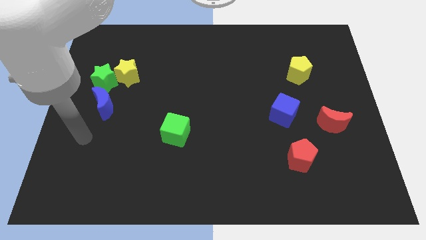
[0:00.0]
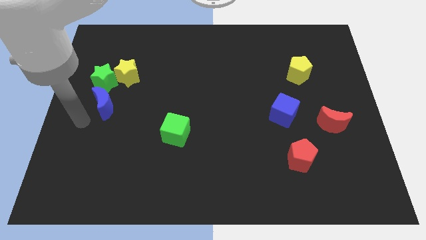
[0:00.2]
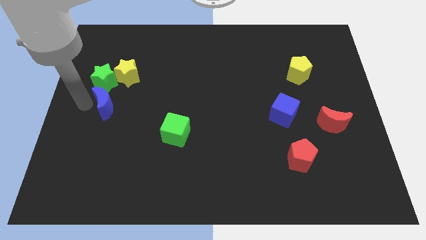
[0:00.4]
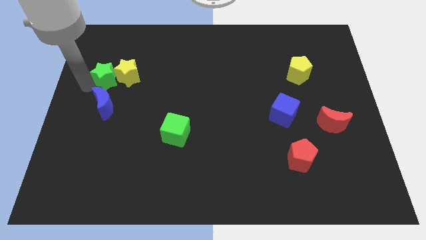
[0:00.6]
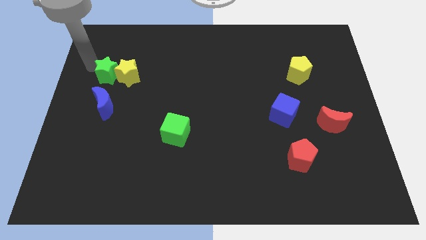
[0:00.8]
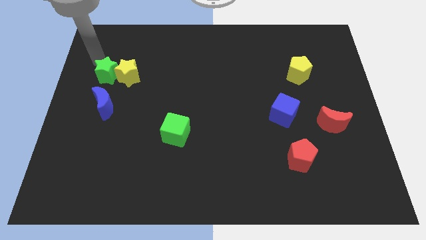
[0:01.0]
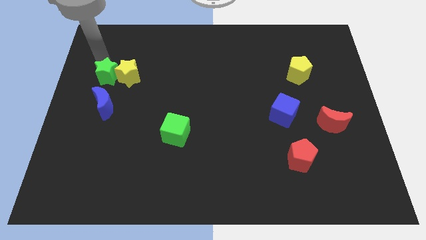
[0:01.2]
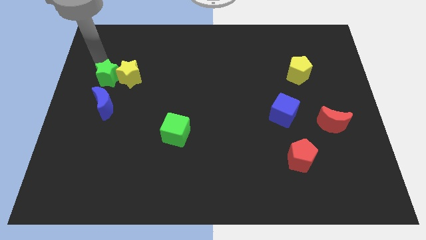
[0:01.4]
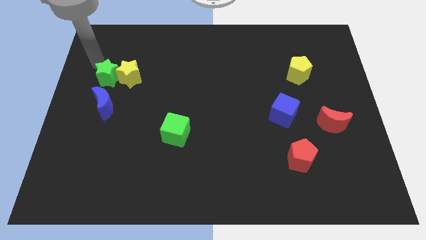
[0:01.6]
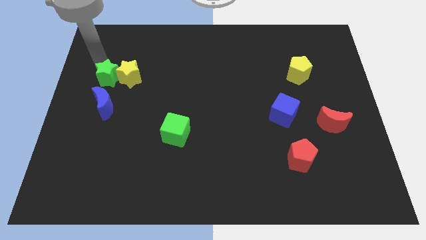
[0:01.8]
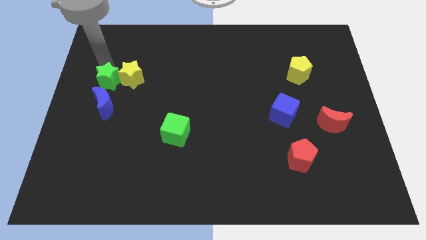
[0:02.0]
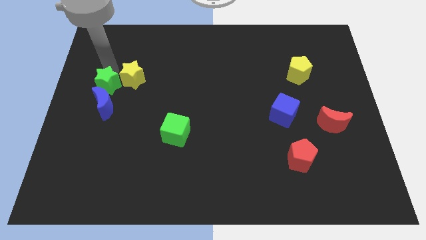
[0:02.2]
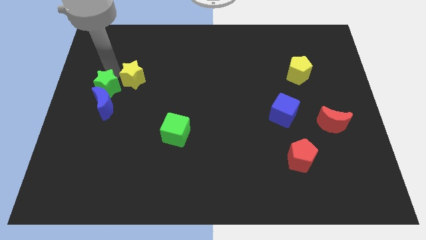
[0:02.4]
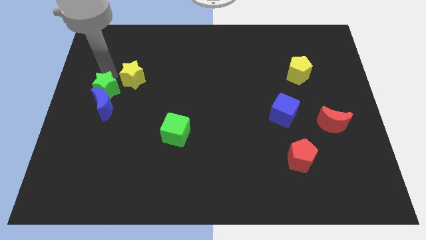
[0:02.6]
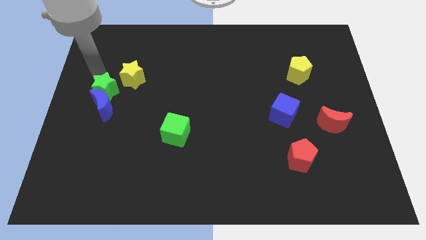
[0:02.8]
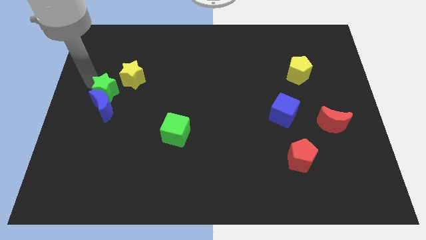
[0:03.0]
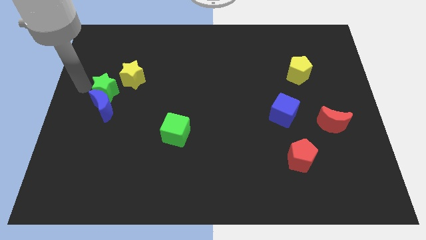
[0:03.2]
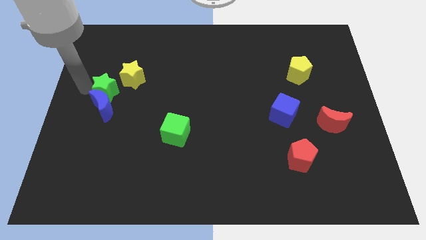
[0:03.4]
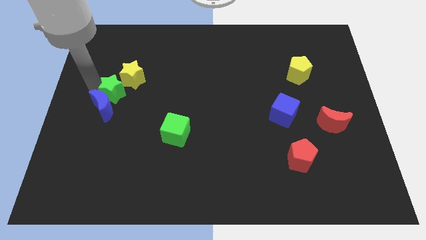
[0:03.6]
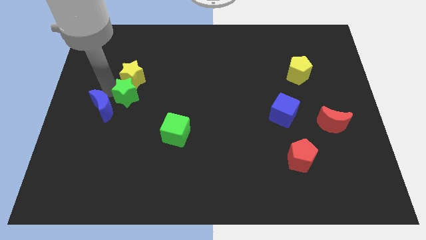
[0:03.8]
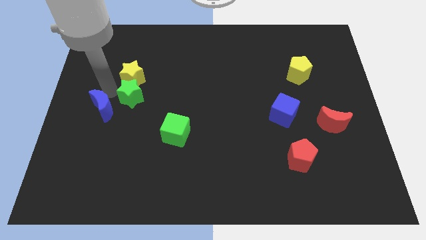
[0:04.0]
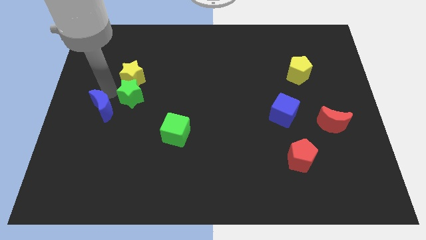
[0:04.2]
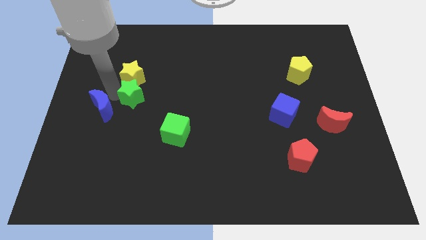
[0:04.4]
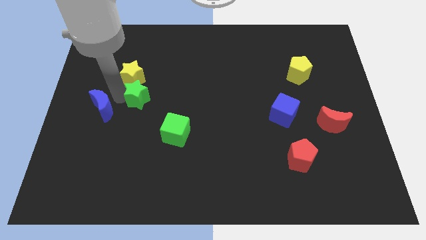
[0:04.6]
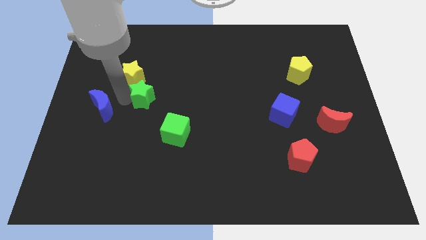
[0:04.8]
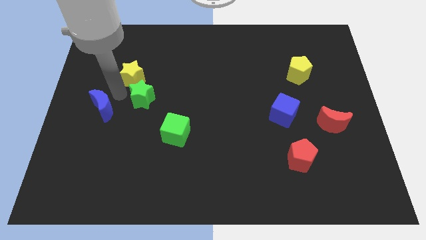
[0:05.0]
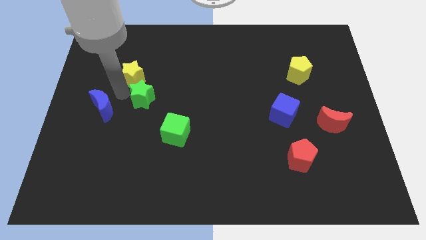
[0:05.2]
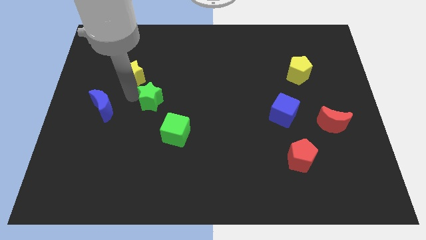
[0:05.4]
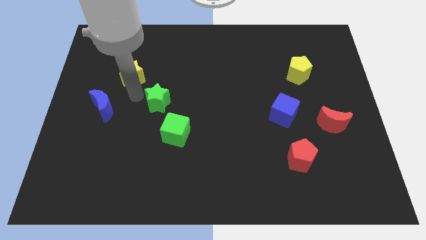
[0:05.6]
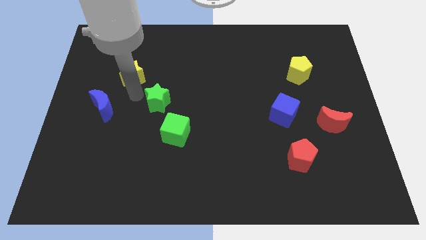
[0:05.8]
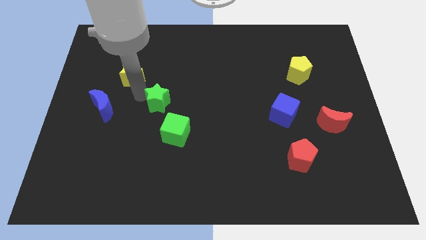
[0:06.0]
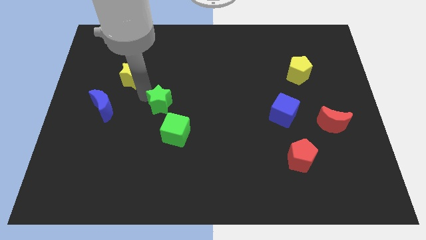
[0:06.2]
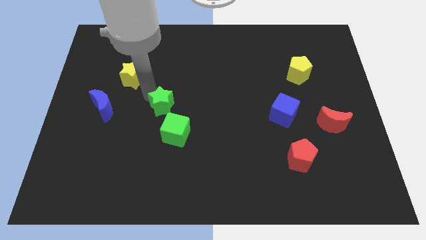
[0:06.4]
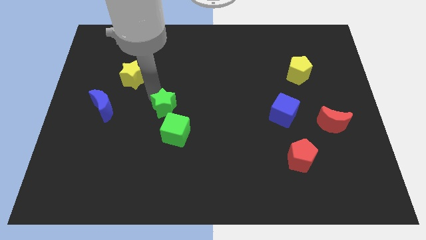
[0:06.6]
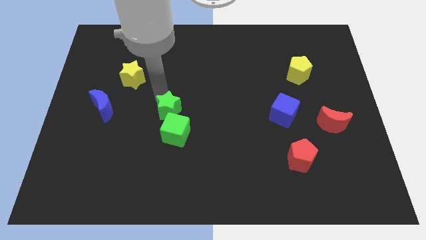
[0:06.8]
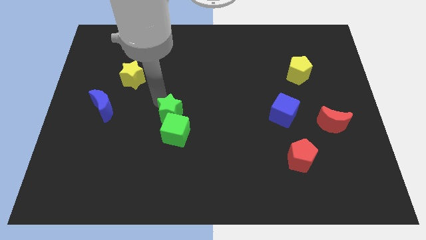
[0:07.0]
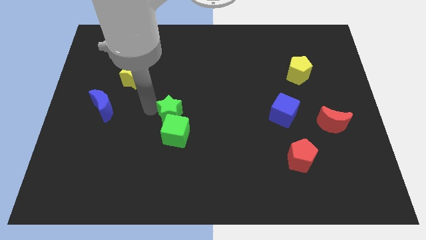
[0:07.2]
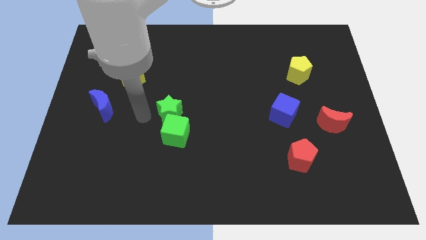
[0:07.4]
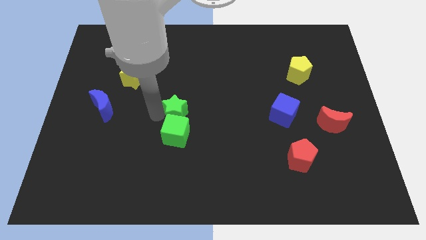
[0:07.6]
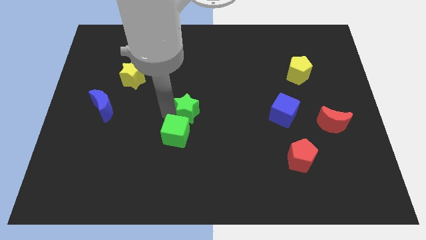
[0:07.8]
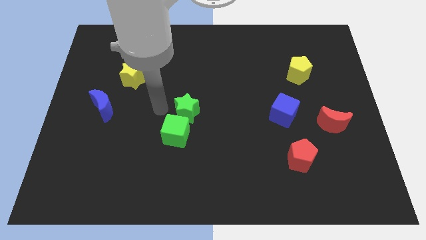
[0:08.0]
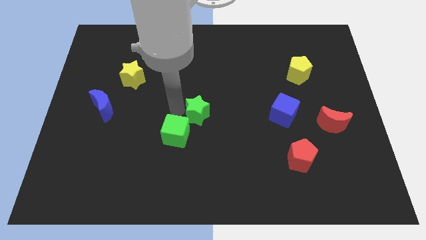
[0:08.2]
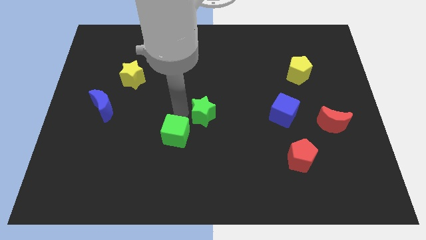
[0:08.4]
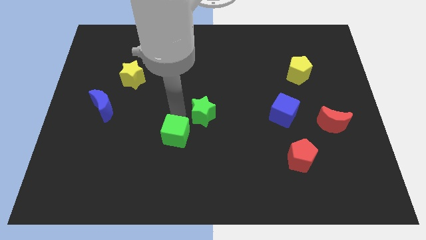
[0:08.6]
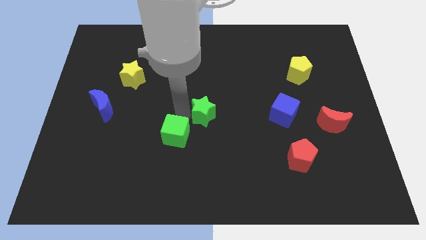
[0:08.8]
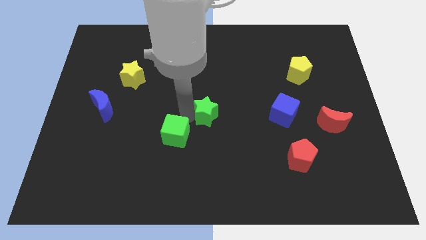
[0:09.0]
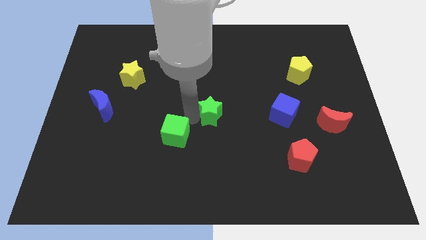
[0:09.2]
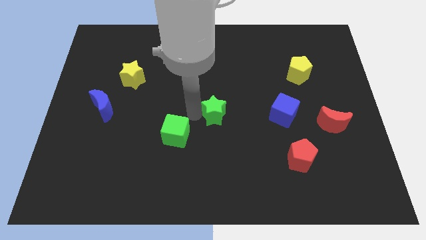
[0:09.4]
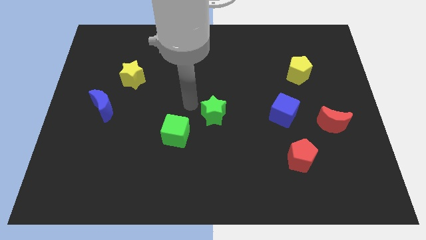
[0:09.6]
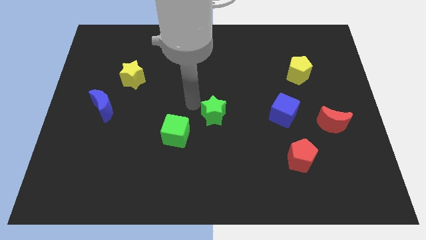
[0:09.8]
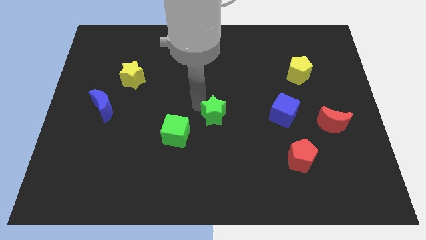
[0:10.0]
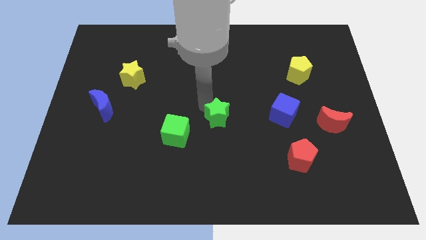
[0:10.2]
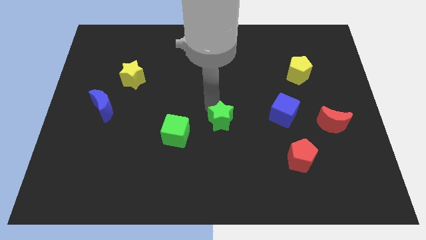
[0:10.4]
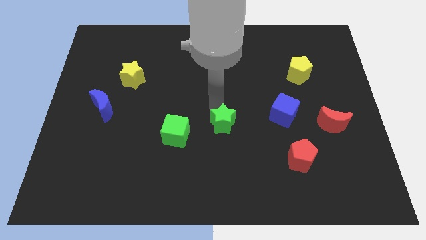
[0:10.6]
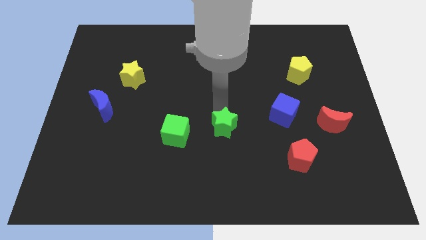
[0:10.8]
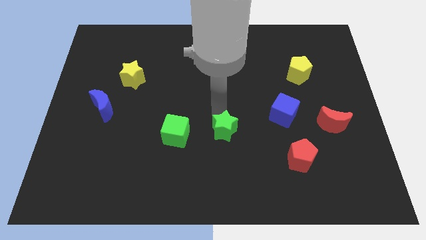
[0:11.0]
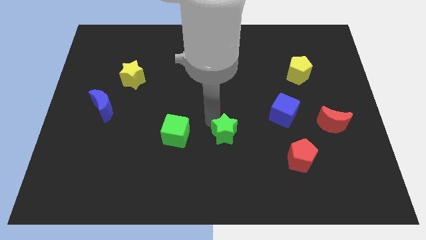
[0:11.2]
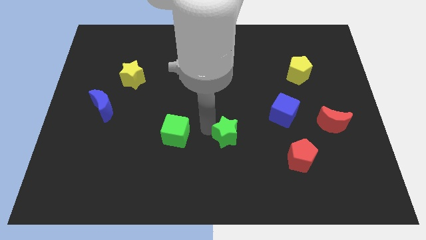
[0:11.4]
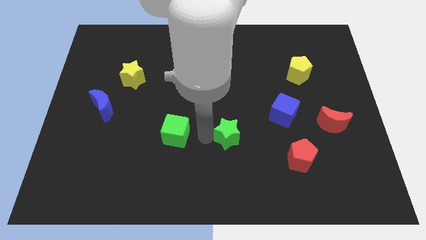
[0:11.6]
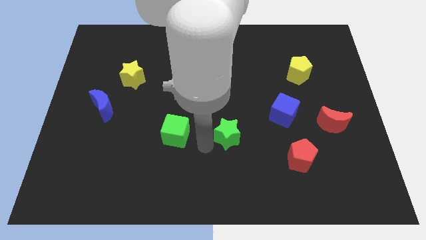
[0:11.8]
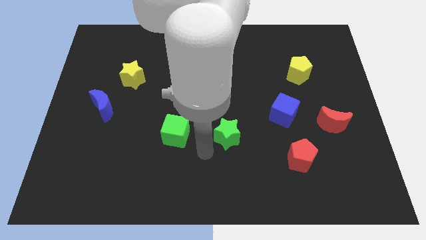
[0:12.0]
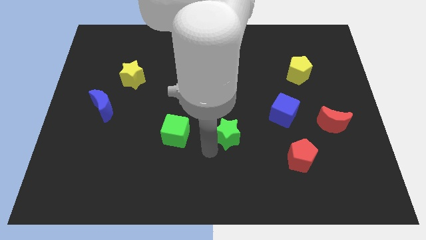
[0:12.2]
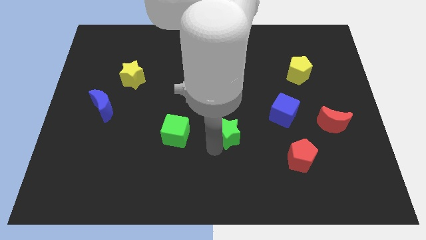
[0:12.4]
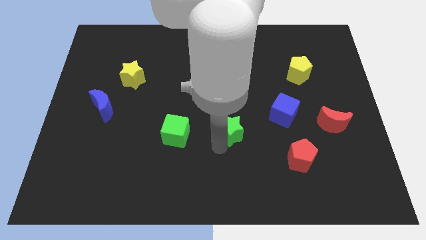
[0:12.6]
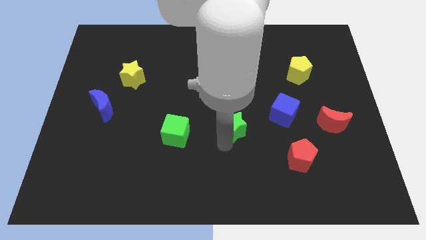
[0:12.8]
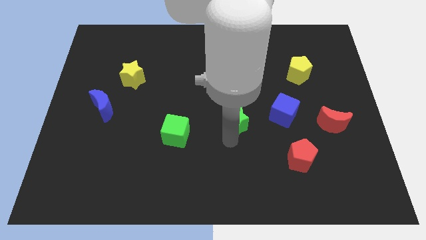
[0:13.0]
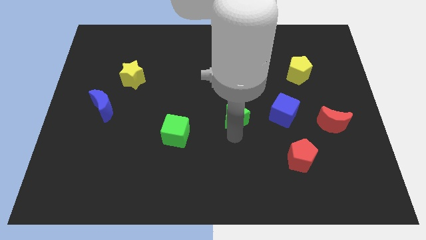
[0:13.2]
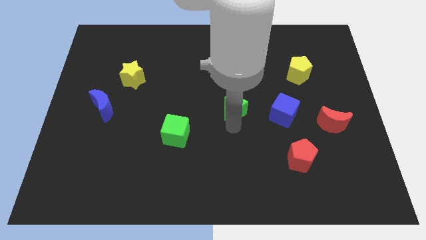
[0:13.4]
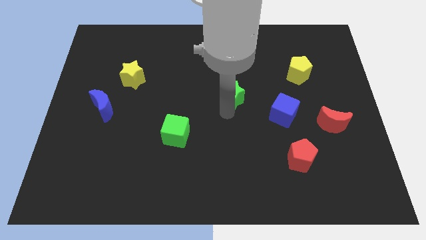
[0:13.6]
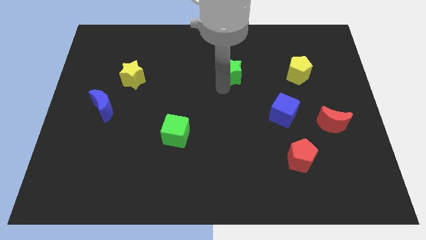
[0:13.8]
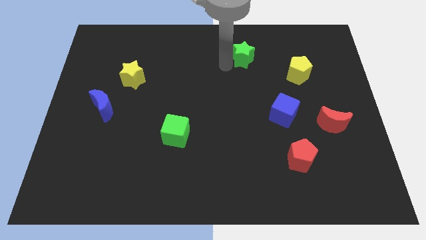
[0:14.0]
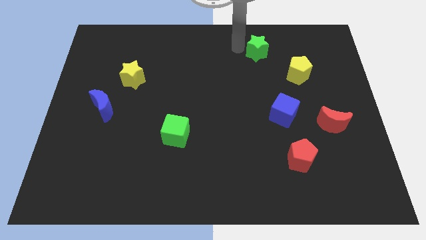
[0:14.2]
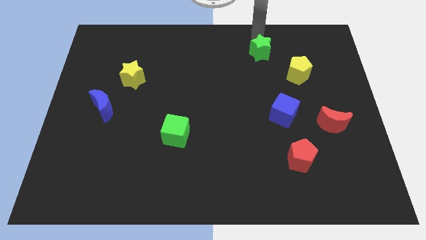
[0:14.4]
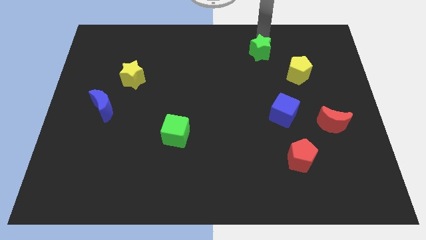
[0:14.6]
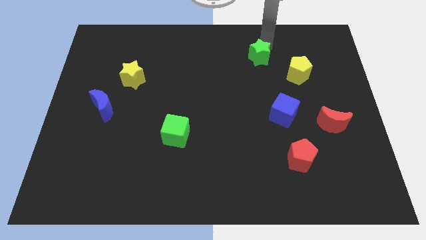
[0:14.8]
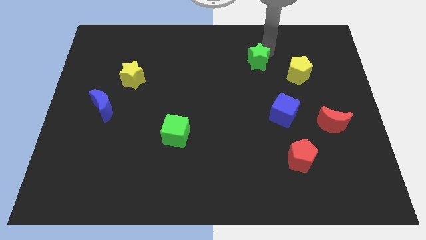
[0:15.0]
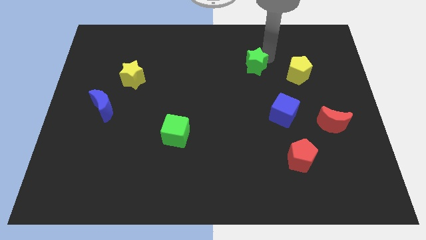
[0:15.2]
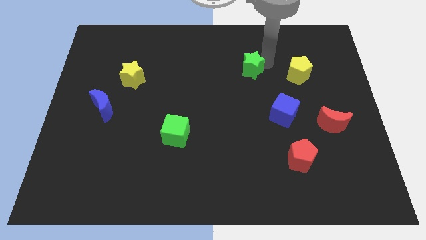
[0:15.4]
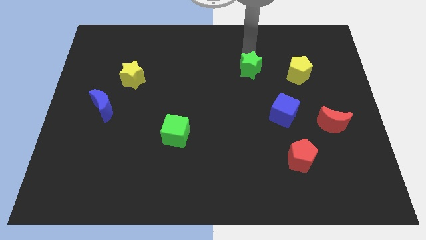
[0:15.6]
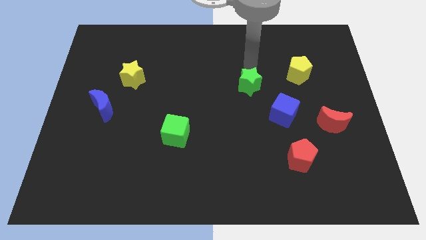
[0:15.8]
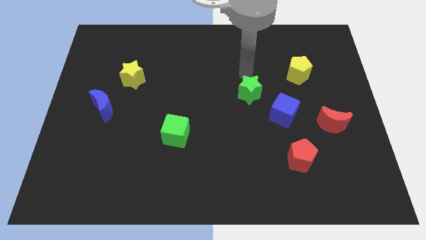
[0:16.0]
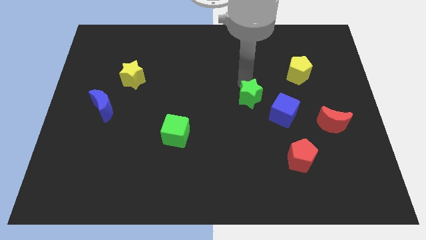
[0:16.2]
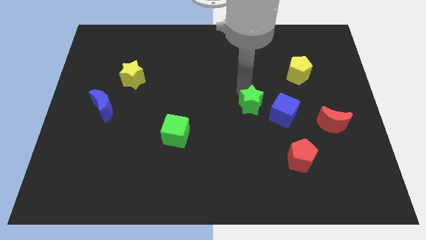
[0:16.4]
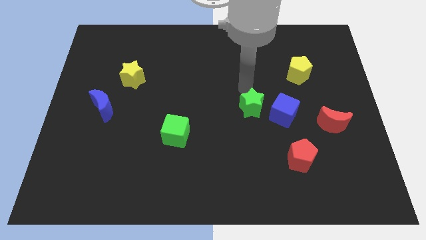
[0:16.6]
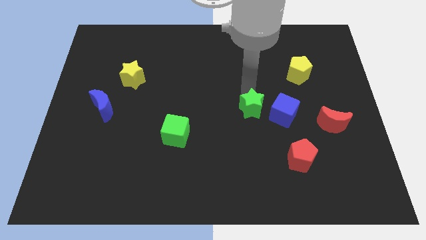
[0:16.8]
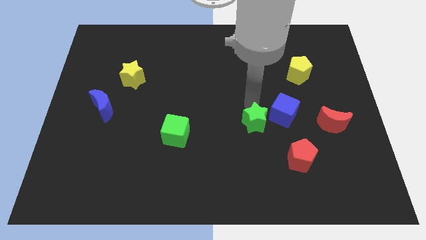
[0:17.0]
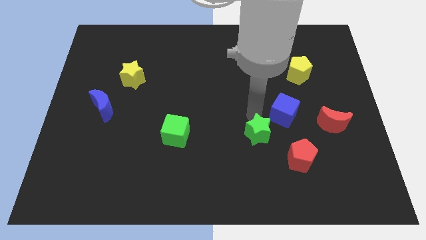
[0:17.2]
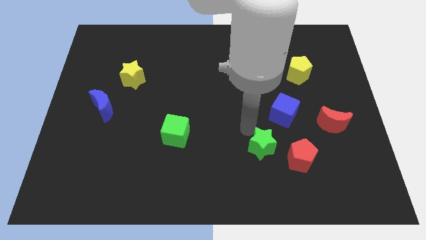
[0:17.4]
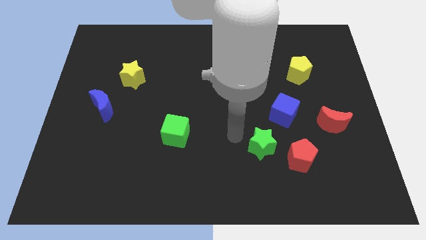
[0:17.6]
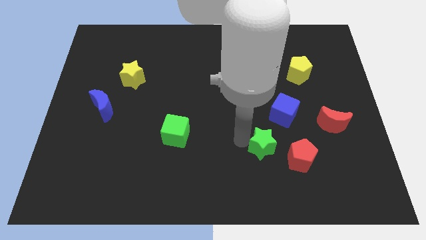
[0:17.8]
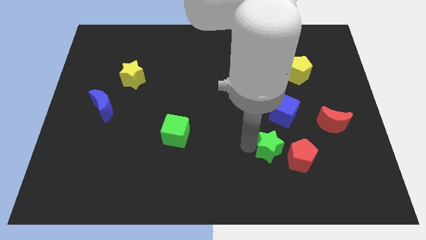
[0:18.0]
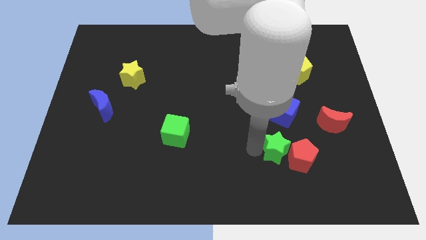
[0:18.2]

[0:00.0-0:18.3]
put the green star next to the red pentagon
